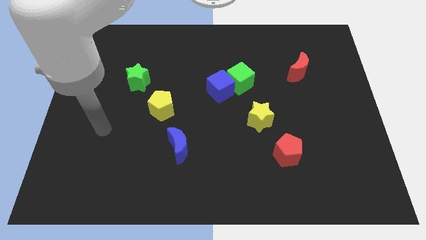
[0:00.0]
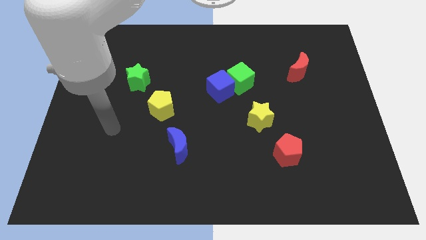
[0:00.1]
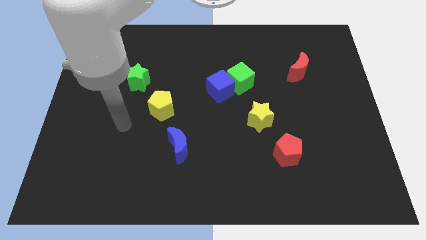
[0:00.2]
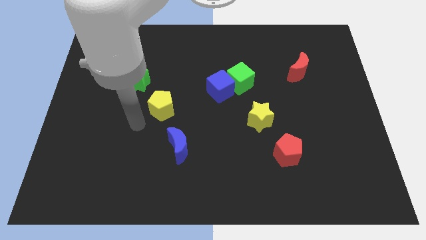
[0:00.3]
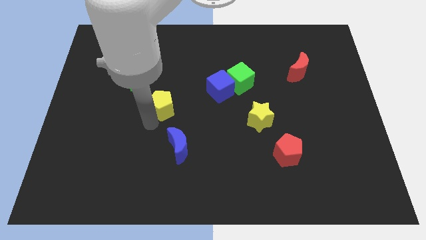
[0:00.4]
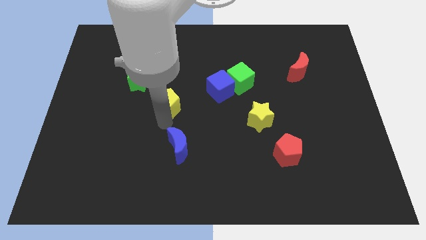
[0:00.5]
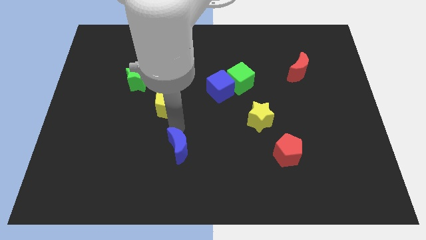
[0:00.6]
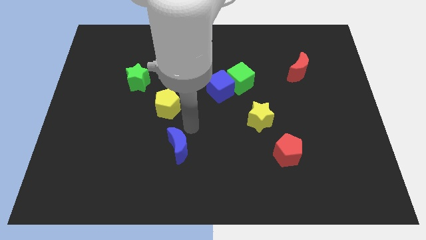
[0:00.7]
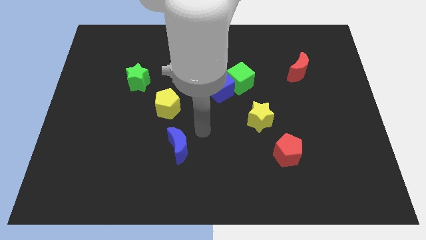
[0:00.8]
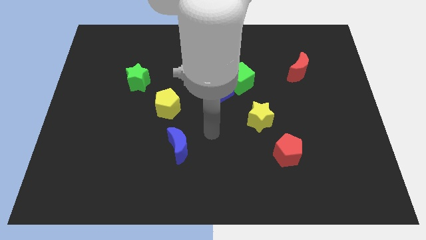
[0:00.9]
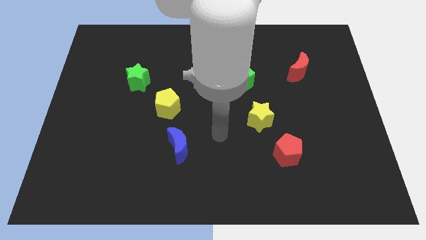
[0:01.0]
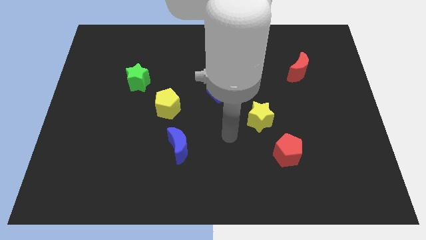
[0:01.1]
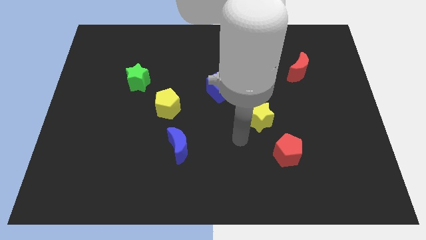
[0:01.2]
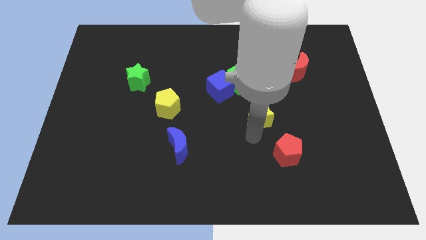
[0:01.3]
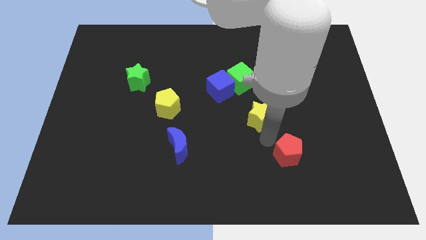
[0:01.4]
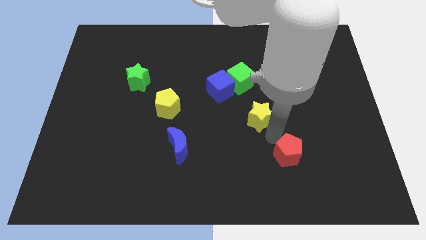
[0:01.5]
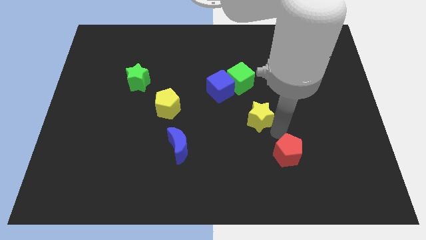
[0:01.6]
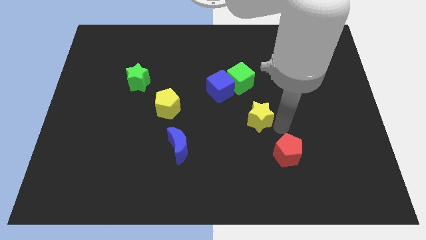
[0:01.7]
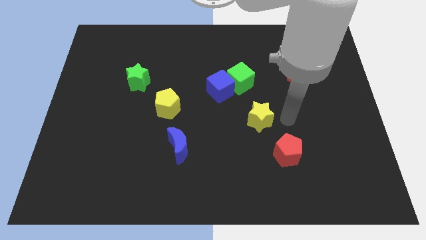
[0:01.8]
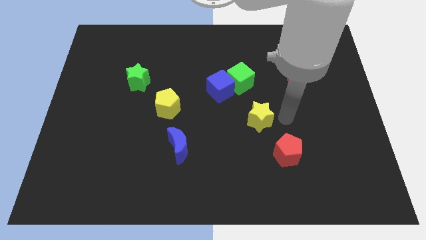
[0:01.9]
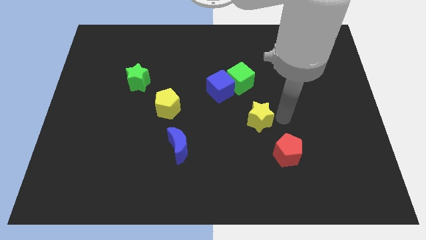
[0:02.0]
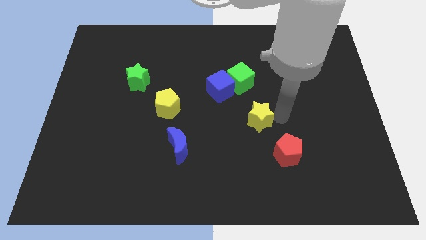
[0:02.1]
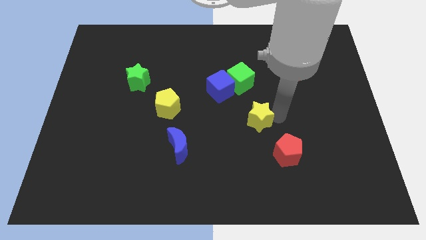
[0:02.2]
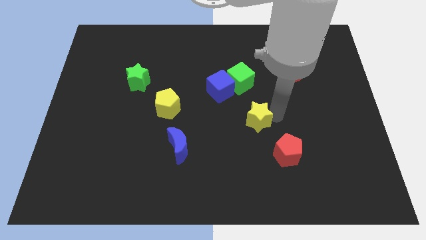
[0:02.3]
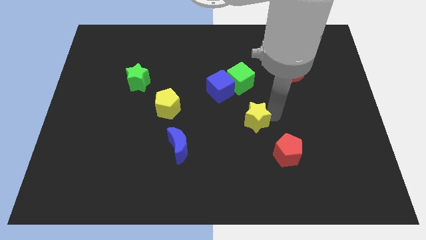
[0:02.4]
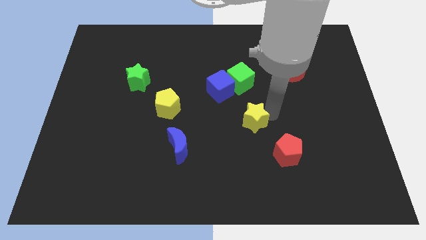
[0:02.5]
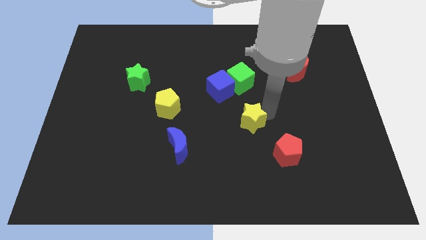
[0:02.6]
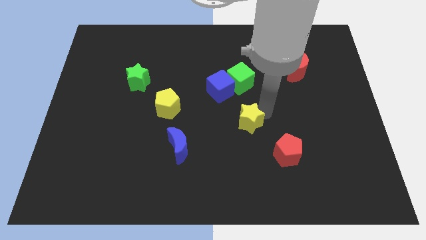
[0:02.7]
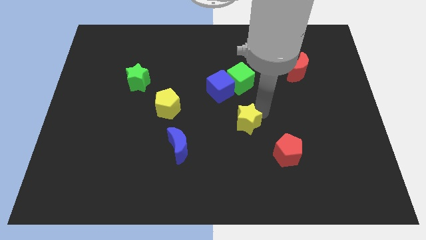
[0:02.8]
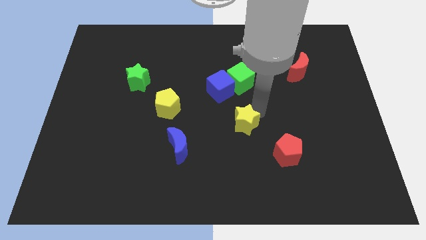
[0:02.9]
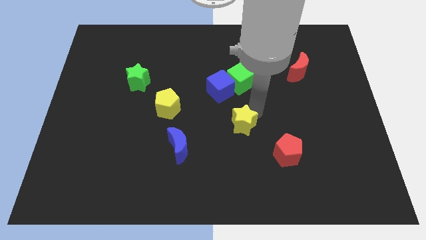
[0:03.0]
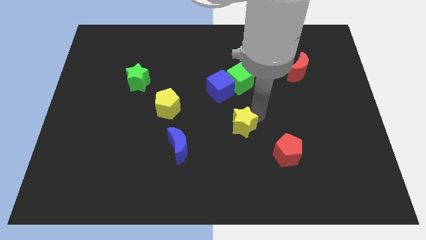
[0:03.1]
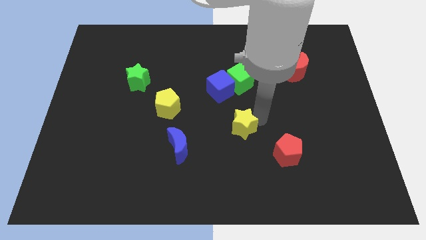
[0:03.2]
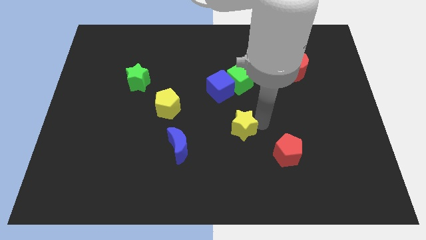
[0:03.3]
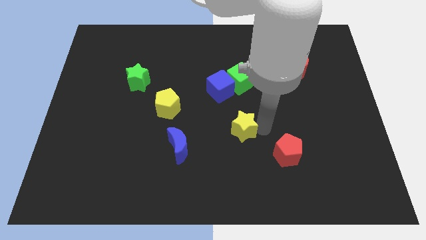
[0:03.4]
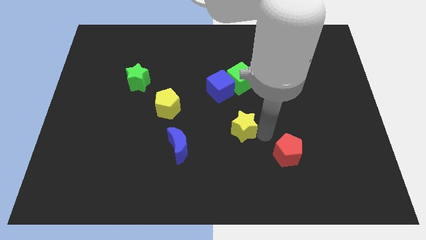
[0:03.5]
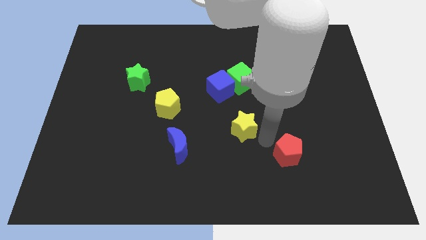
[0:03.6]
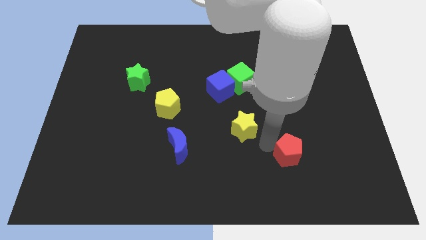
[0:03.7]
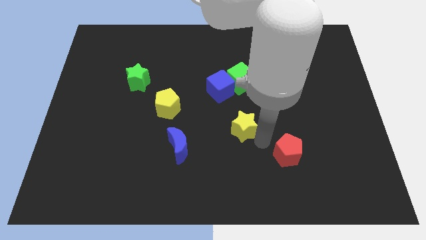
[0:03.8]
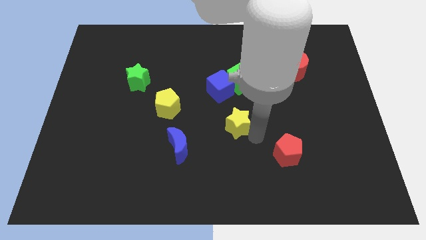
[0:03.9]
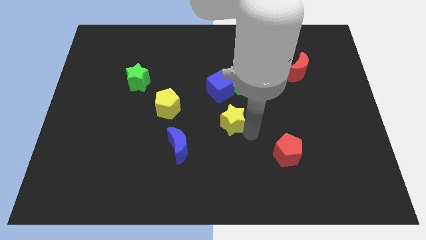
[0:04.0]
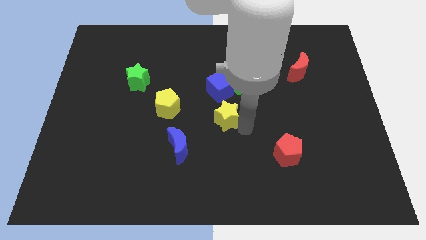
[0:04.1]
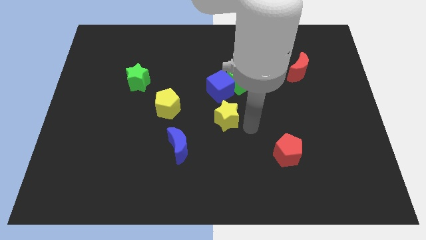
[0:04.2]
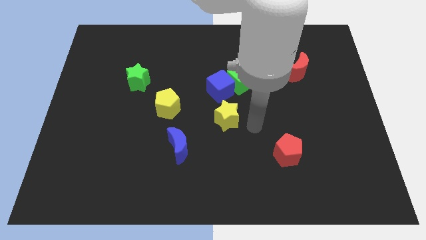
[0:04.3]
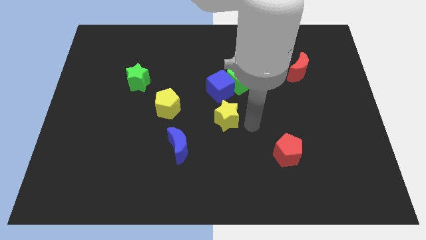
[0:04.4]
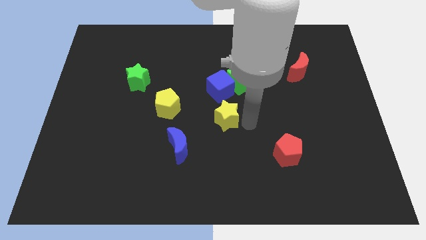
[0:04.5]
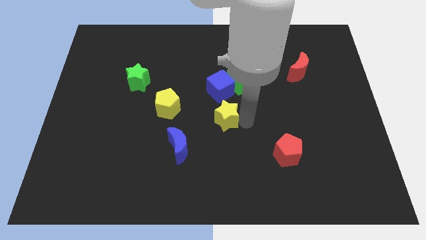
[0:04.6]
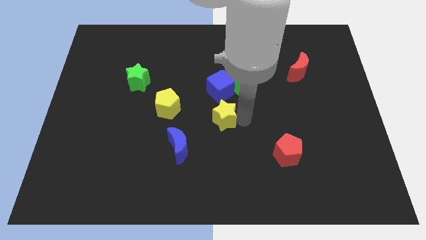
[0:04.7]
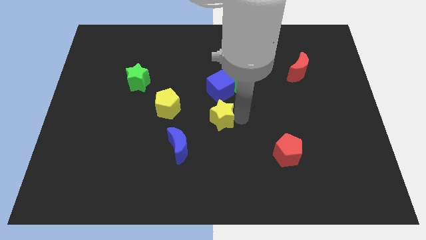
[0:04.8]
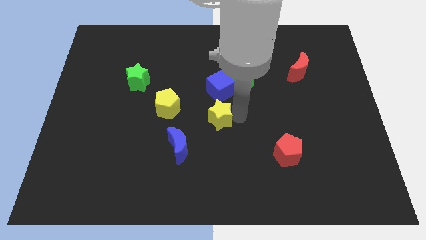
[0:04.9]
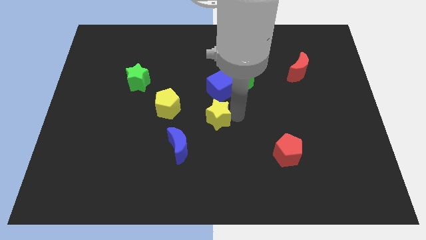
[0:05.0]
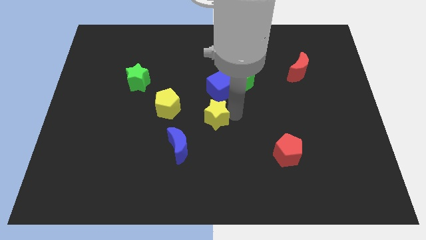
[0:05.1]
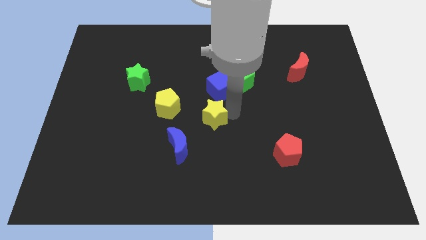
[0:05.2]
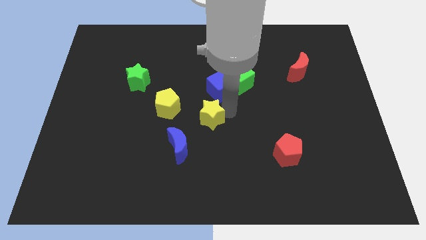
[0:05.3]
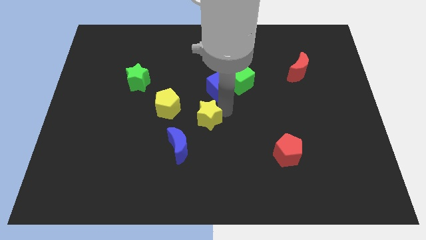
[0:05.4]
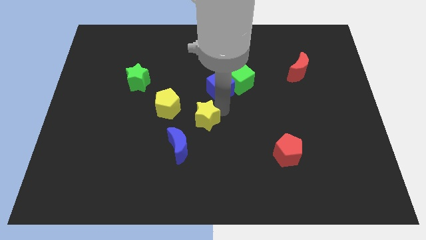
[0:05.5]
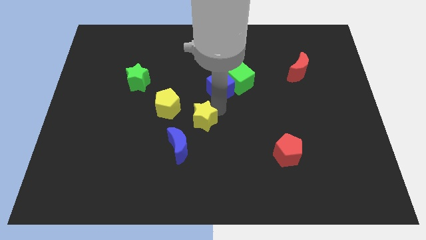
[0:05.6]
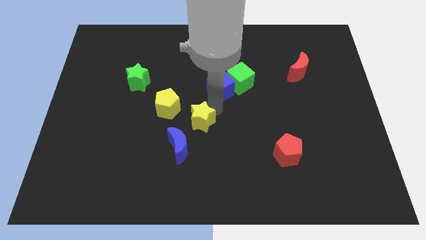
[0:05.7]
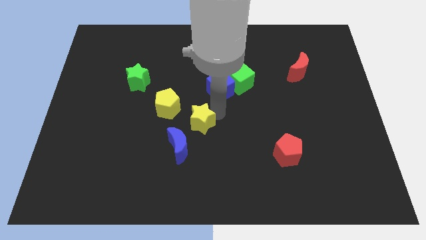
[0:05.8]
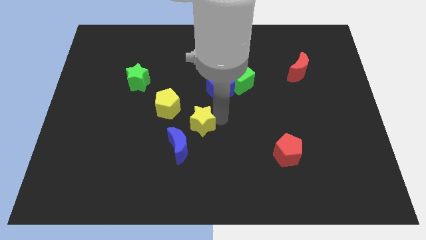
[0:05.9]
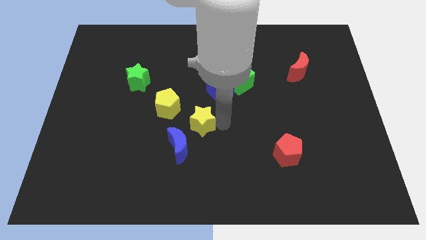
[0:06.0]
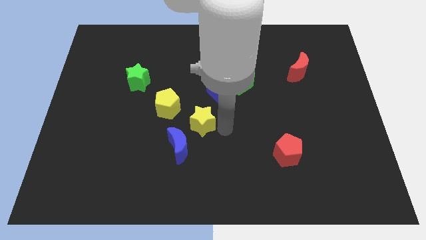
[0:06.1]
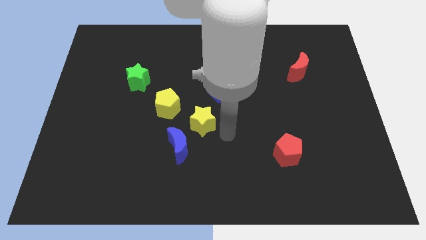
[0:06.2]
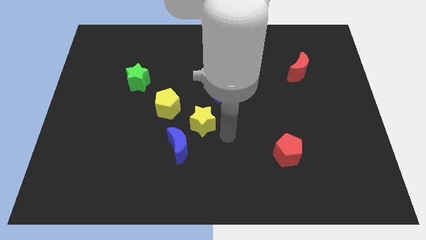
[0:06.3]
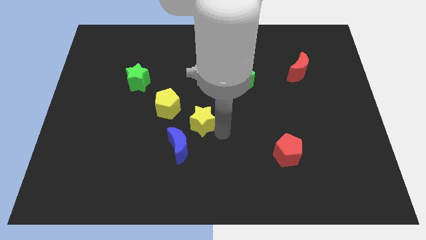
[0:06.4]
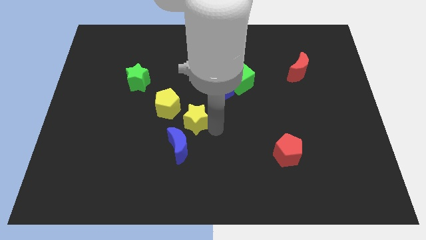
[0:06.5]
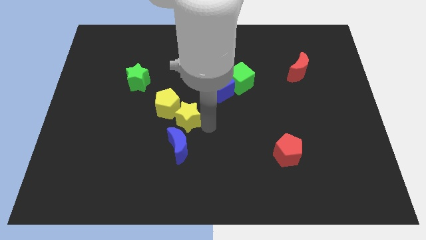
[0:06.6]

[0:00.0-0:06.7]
move the yellow star close to the yellow pentagon

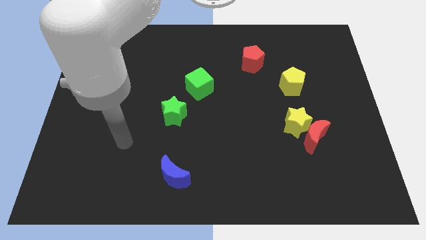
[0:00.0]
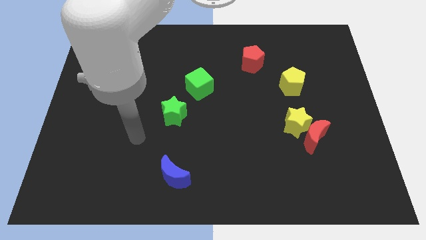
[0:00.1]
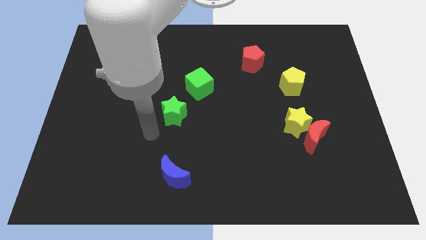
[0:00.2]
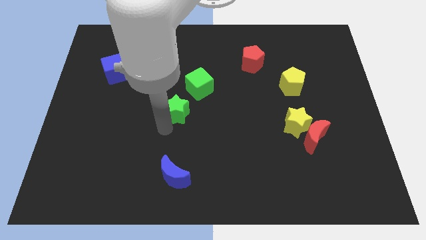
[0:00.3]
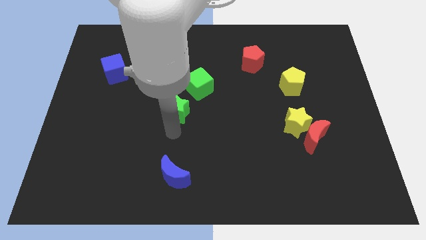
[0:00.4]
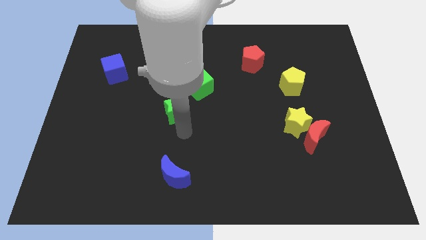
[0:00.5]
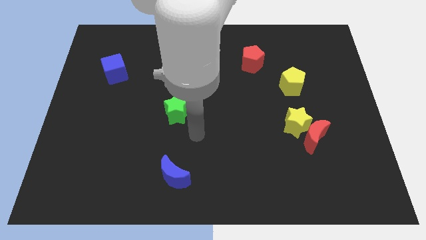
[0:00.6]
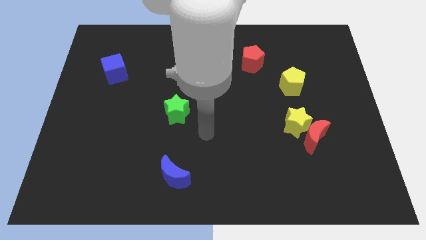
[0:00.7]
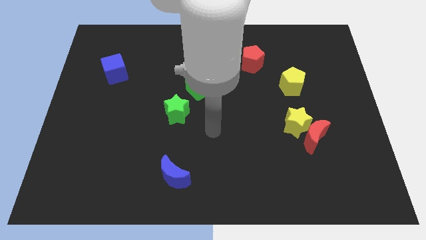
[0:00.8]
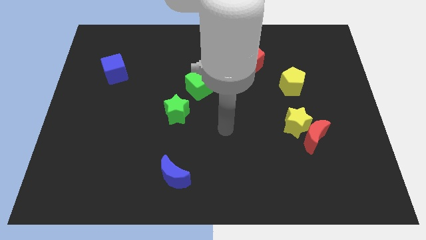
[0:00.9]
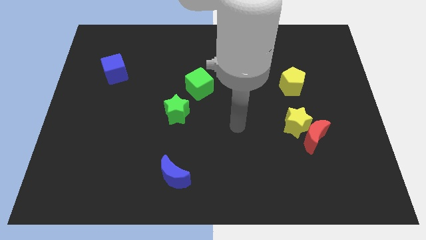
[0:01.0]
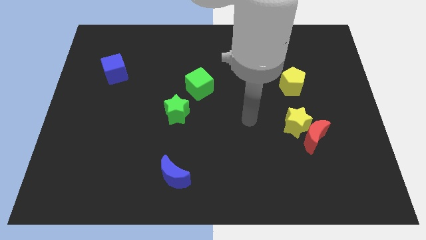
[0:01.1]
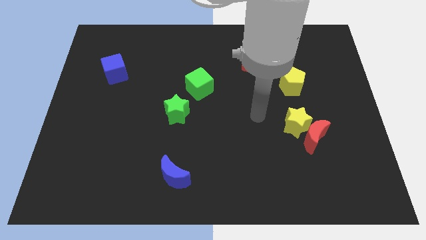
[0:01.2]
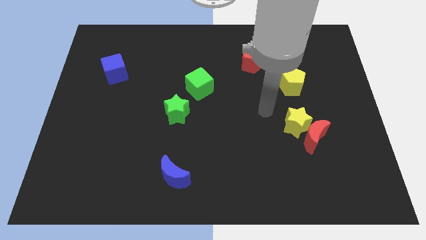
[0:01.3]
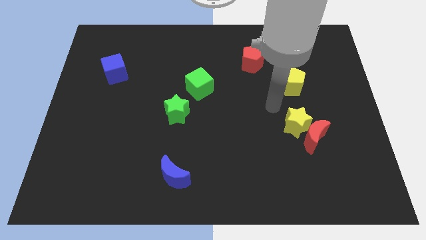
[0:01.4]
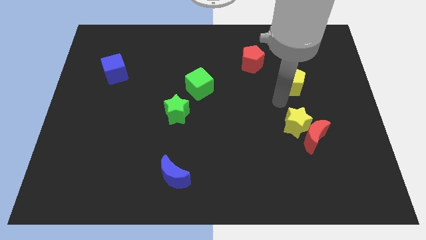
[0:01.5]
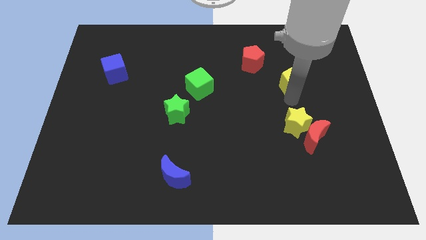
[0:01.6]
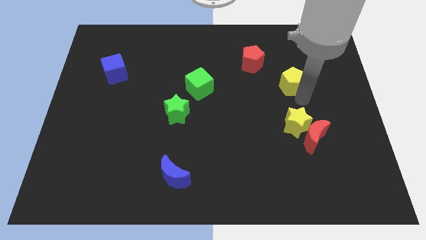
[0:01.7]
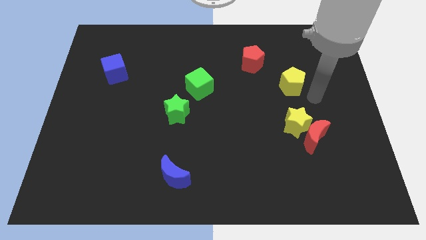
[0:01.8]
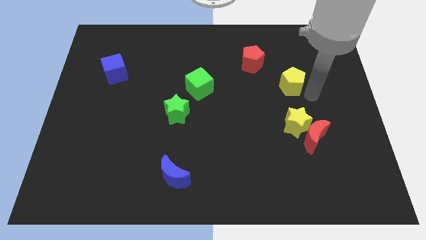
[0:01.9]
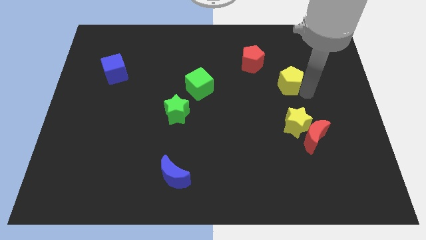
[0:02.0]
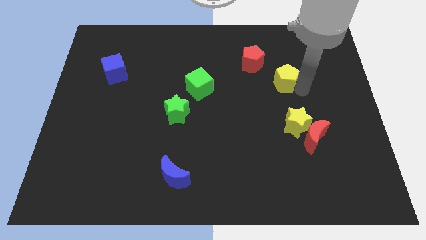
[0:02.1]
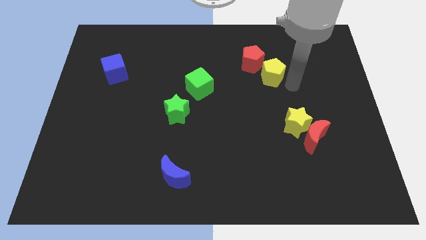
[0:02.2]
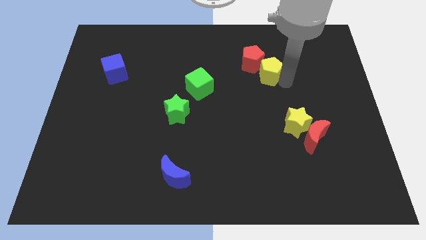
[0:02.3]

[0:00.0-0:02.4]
move the yellow pentagon to the red pentagon
